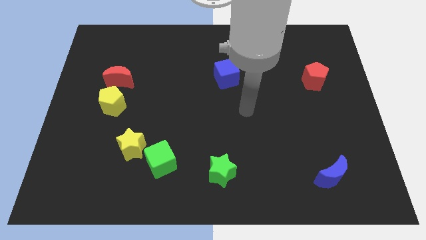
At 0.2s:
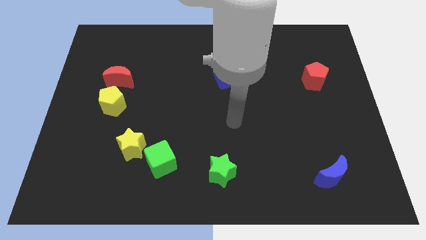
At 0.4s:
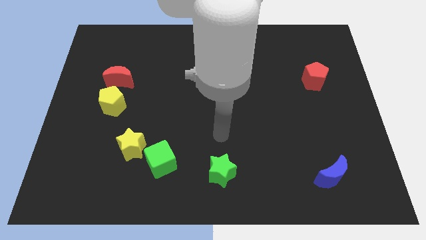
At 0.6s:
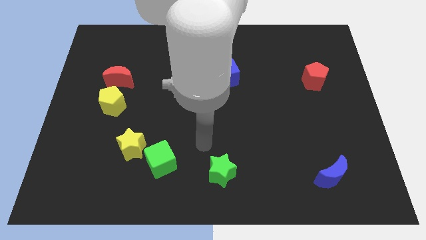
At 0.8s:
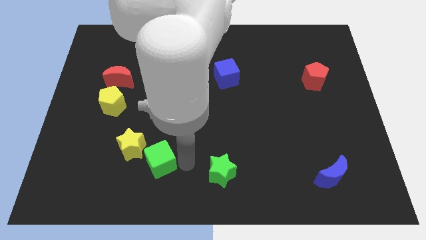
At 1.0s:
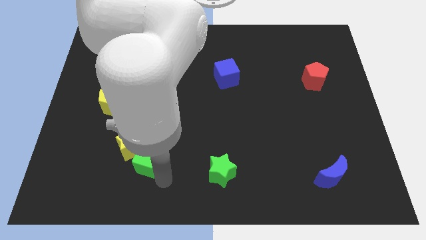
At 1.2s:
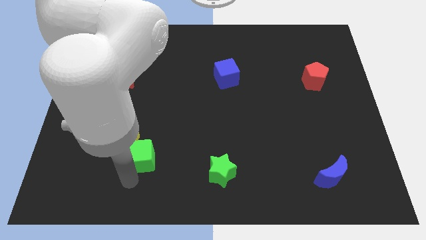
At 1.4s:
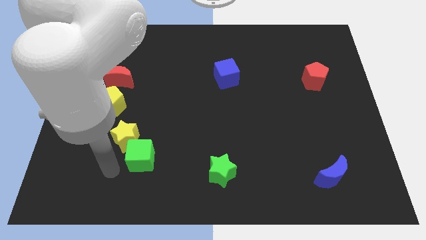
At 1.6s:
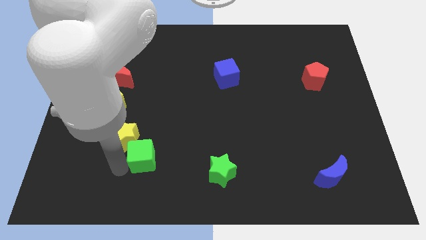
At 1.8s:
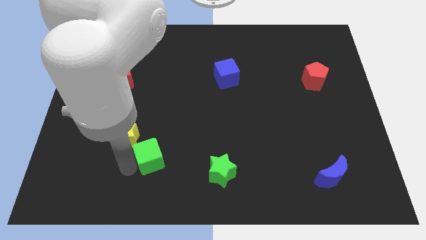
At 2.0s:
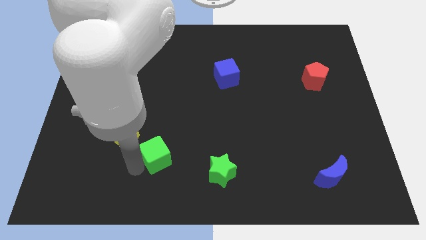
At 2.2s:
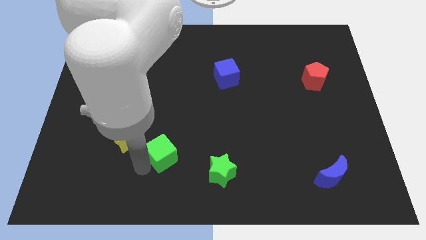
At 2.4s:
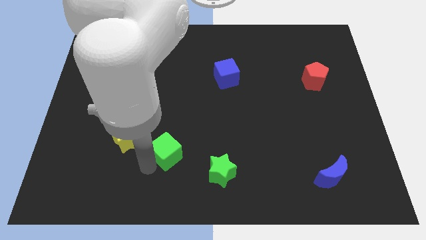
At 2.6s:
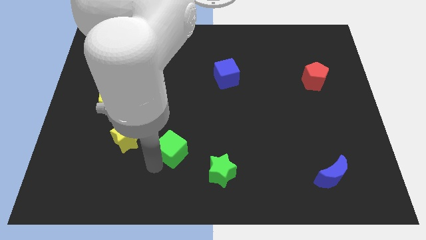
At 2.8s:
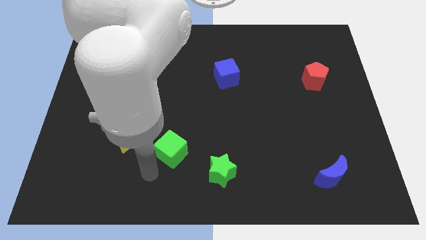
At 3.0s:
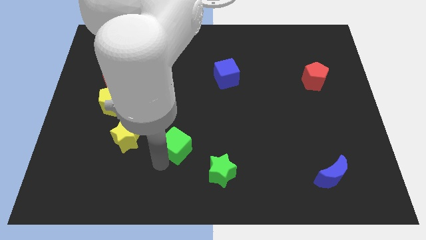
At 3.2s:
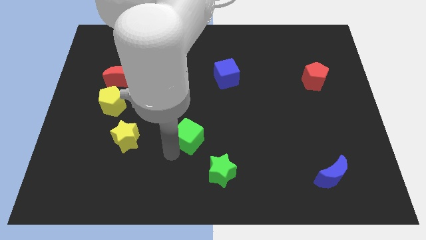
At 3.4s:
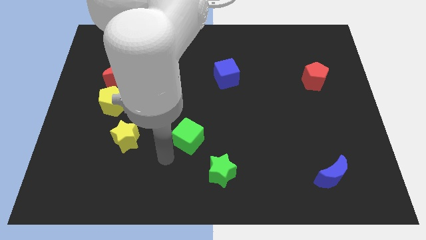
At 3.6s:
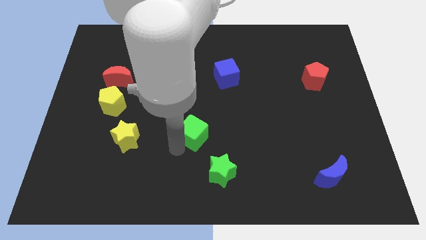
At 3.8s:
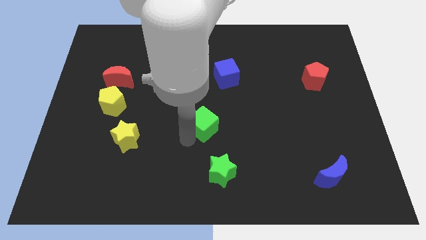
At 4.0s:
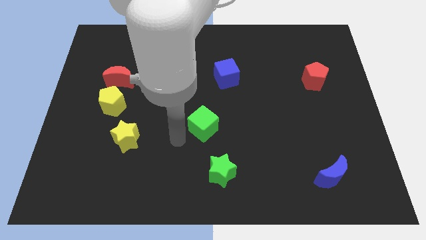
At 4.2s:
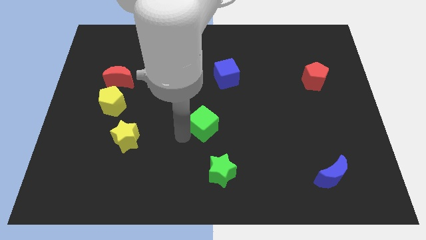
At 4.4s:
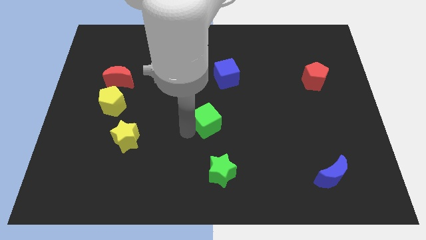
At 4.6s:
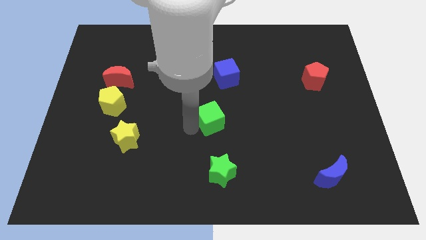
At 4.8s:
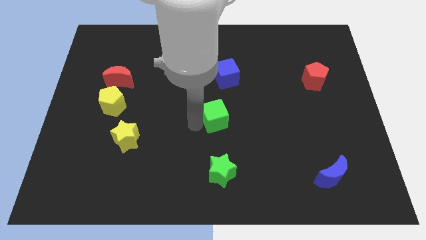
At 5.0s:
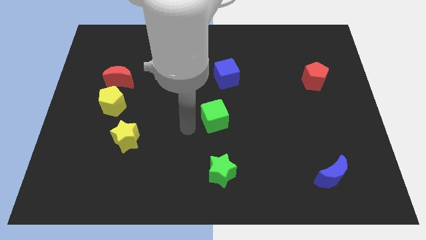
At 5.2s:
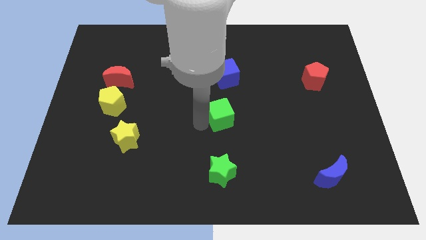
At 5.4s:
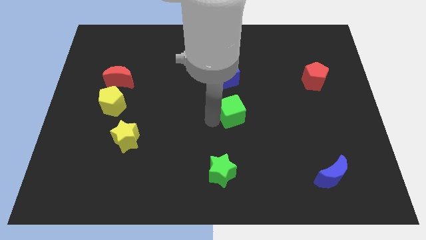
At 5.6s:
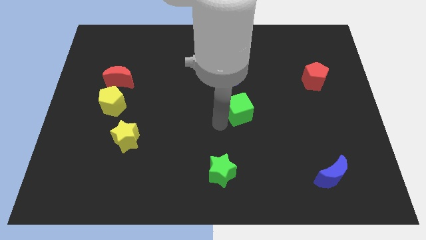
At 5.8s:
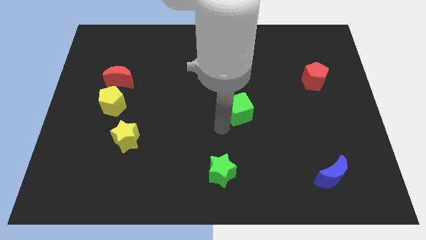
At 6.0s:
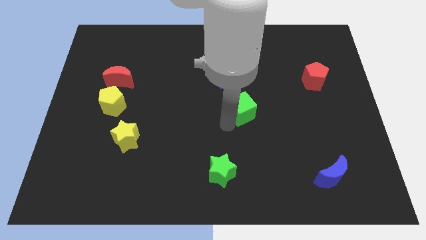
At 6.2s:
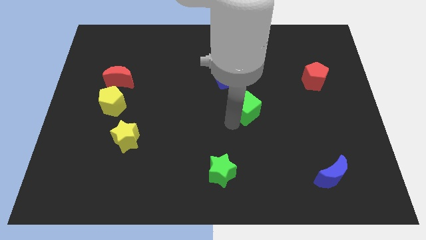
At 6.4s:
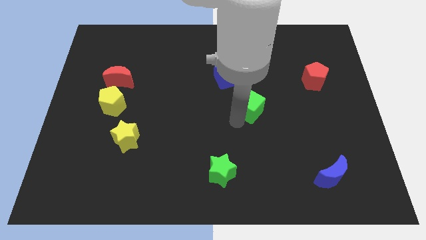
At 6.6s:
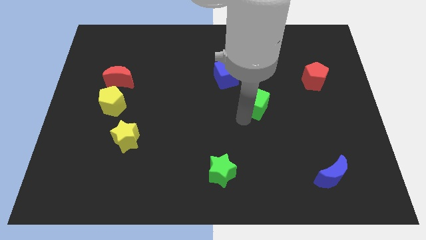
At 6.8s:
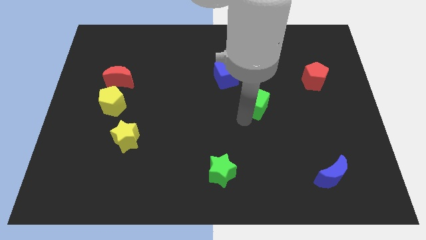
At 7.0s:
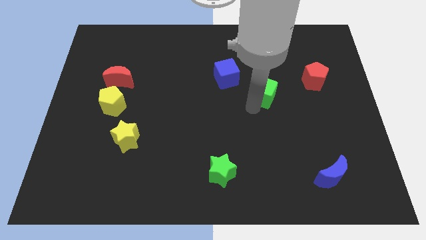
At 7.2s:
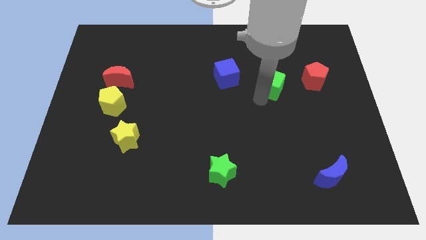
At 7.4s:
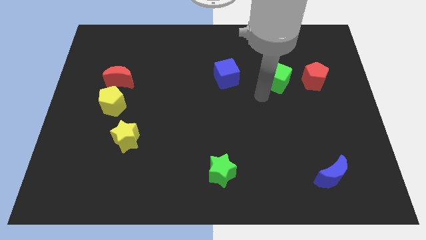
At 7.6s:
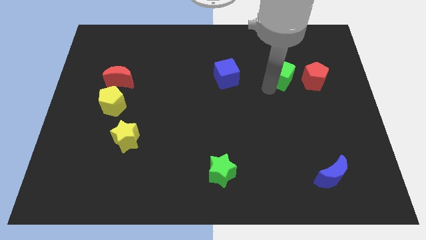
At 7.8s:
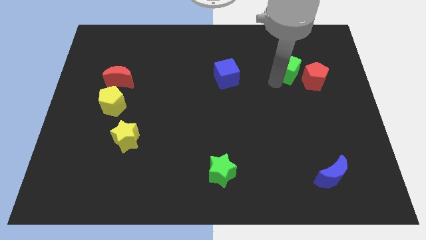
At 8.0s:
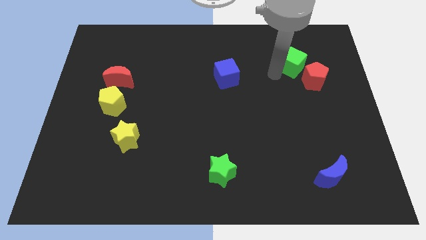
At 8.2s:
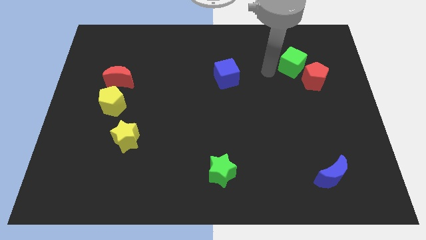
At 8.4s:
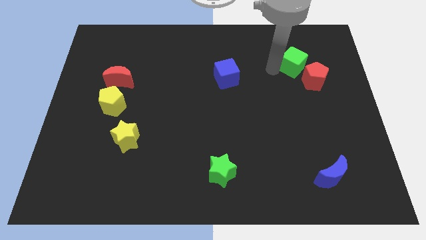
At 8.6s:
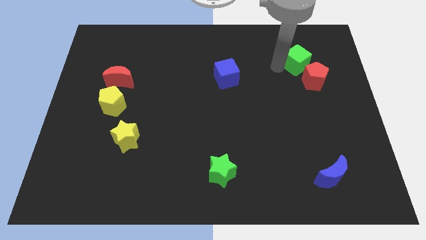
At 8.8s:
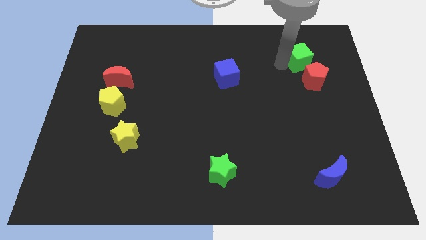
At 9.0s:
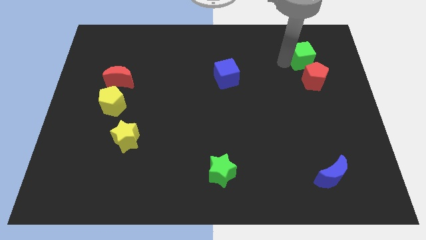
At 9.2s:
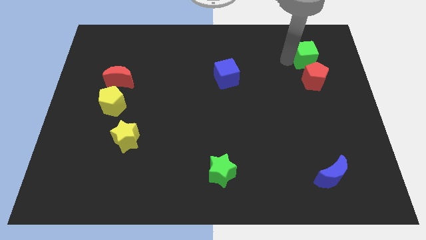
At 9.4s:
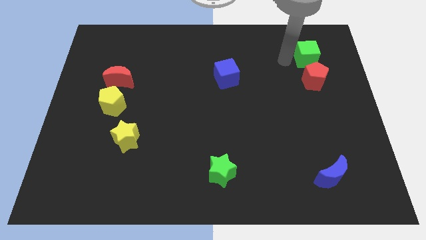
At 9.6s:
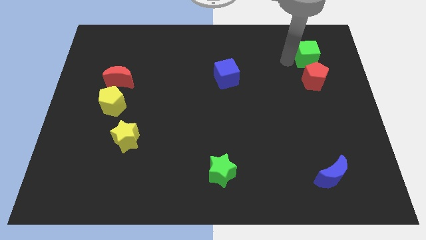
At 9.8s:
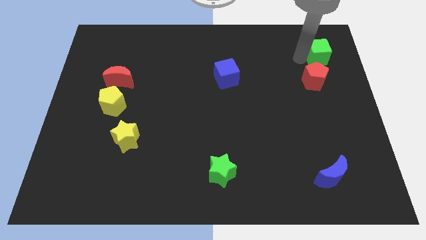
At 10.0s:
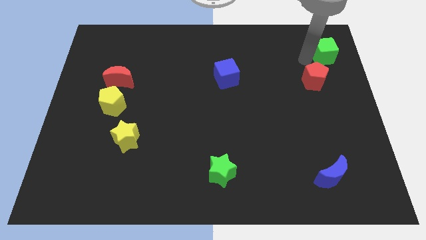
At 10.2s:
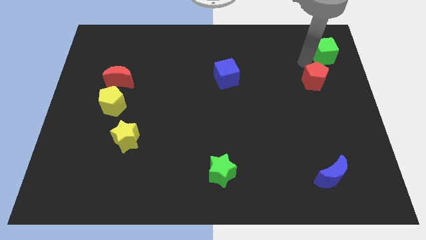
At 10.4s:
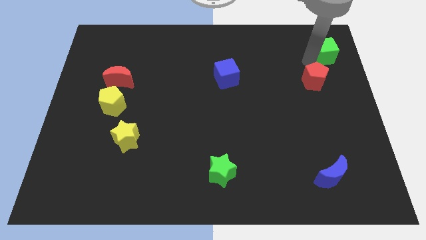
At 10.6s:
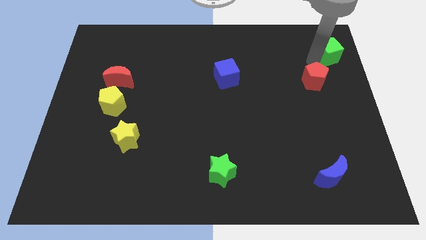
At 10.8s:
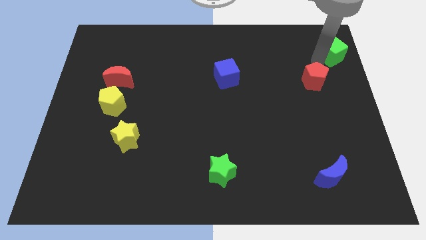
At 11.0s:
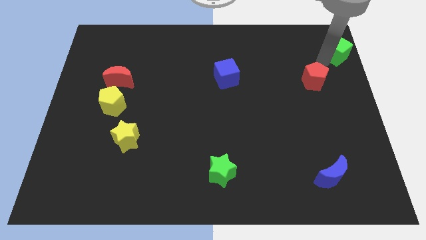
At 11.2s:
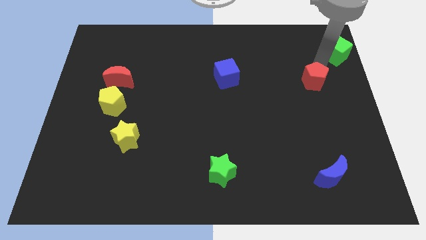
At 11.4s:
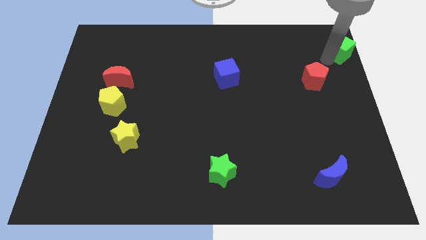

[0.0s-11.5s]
slide the green cube to the top right corner
